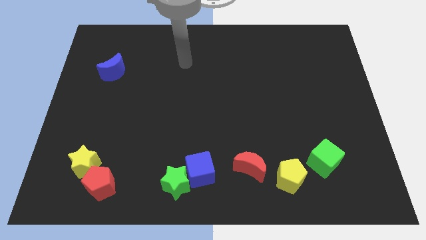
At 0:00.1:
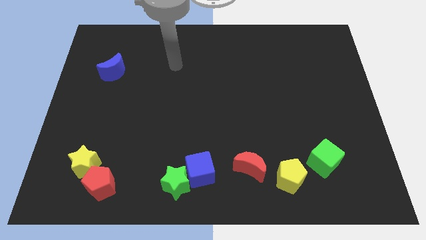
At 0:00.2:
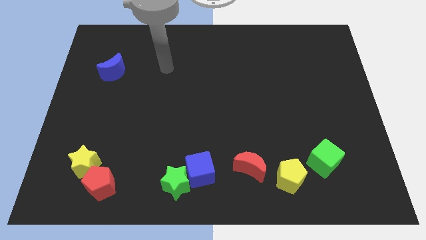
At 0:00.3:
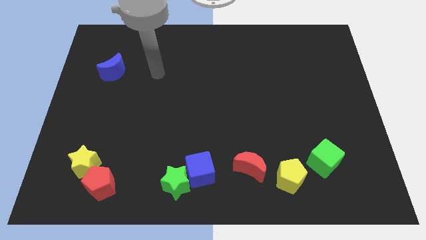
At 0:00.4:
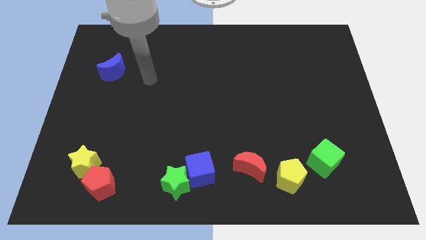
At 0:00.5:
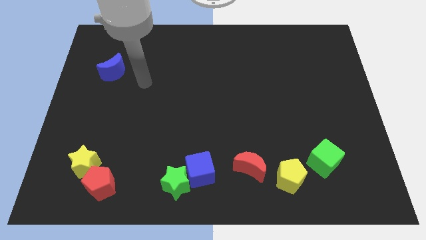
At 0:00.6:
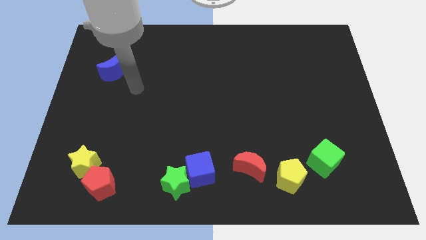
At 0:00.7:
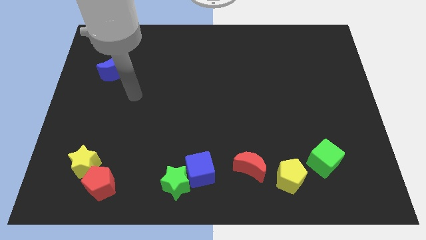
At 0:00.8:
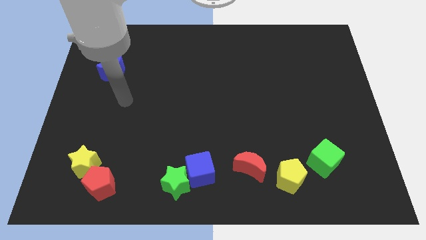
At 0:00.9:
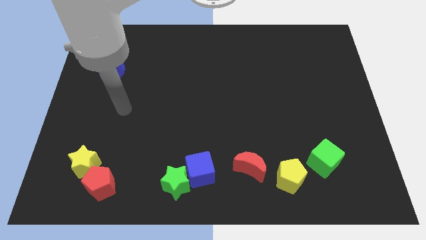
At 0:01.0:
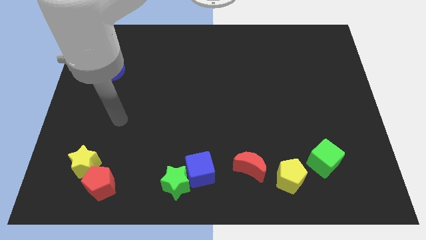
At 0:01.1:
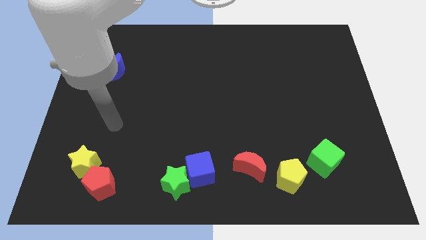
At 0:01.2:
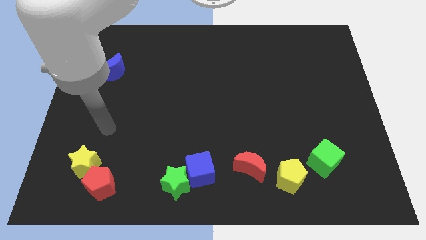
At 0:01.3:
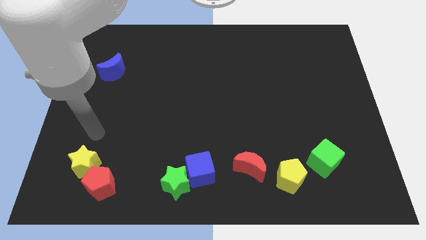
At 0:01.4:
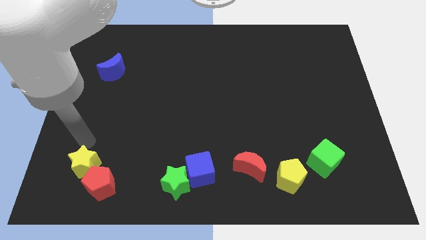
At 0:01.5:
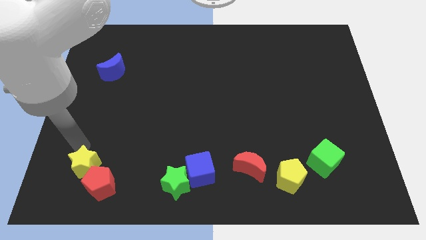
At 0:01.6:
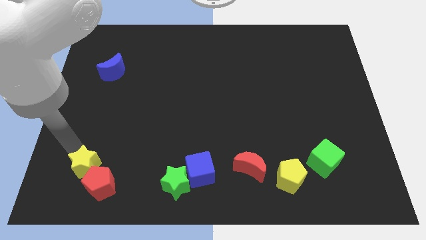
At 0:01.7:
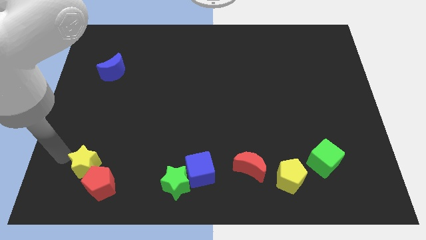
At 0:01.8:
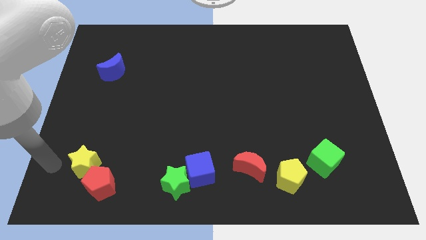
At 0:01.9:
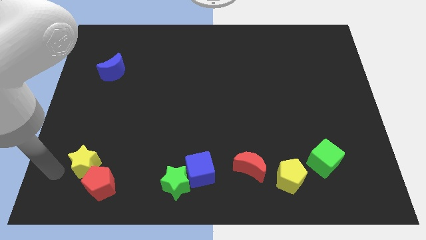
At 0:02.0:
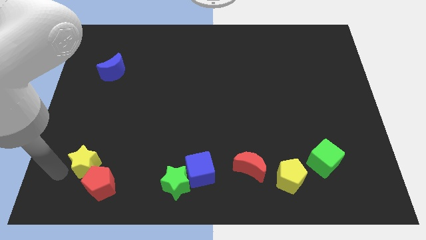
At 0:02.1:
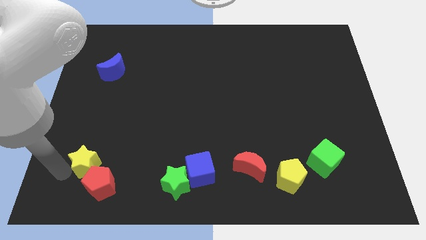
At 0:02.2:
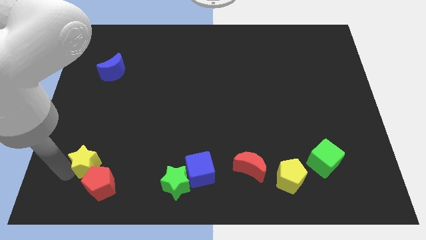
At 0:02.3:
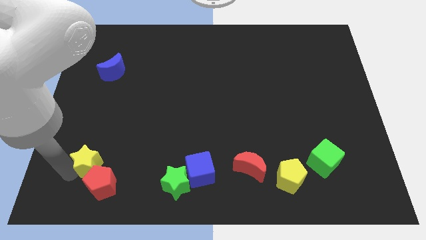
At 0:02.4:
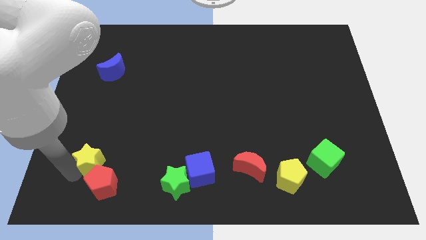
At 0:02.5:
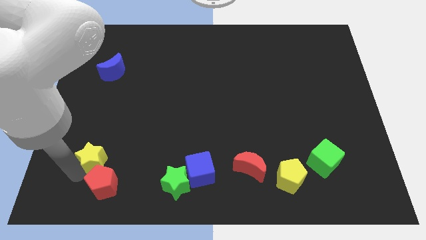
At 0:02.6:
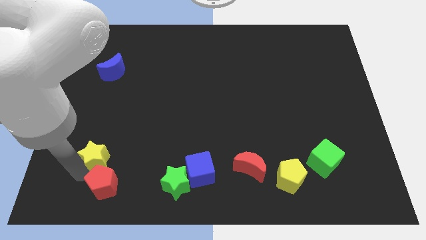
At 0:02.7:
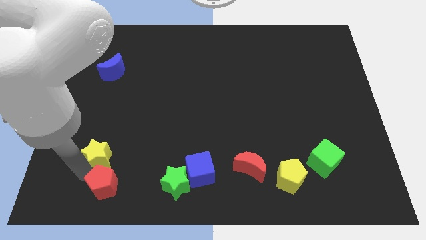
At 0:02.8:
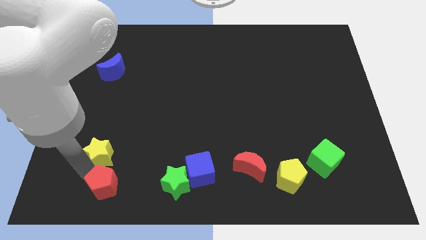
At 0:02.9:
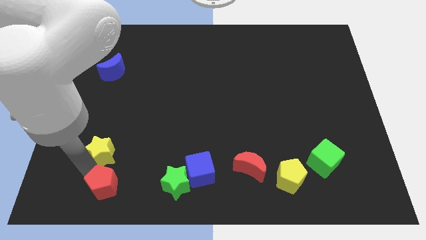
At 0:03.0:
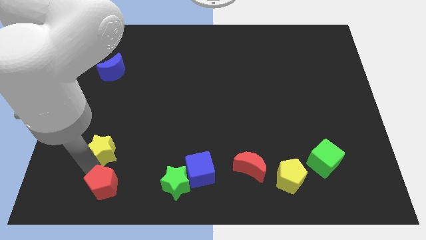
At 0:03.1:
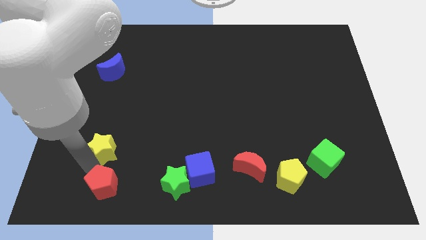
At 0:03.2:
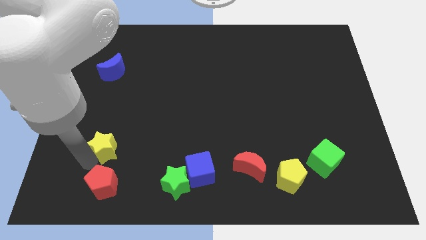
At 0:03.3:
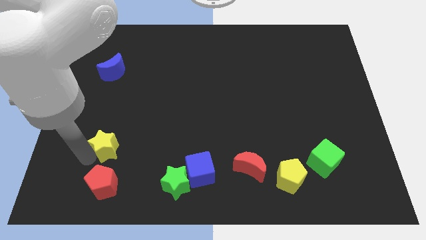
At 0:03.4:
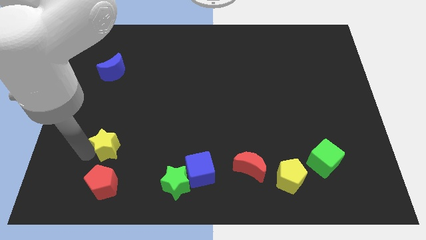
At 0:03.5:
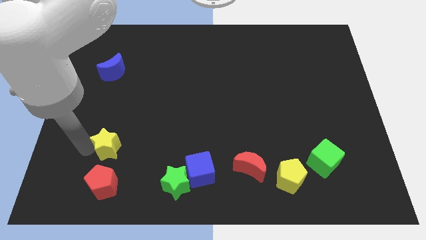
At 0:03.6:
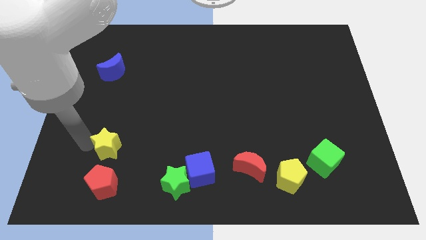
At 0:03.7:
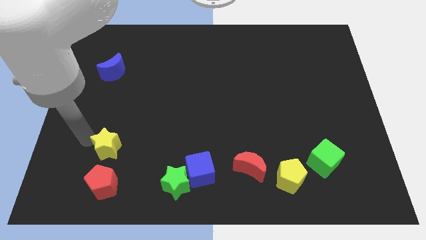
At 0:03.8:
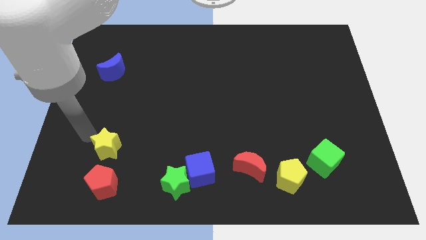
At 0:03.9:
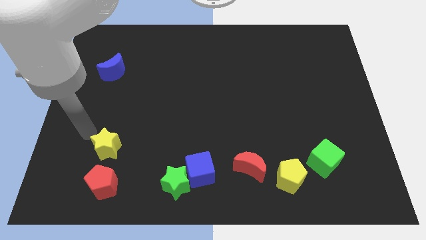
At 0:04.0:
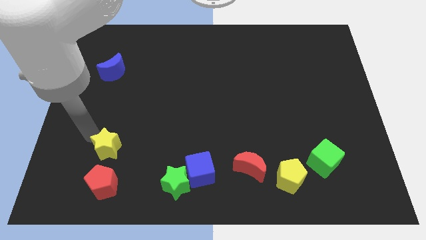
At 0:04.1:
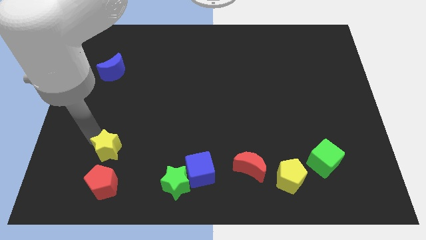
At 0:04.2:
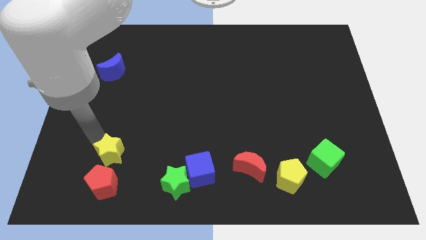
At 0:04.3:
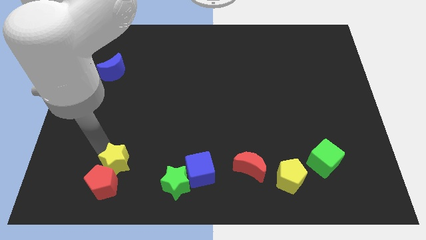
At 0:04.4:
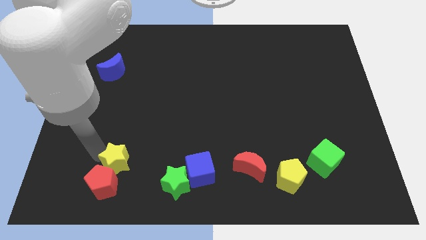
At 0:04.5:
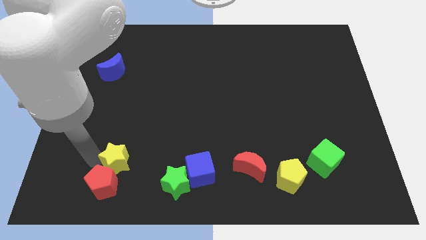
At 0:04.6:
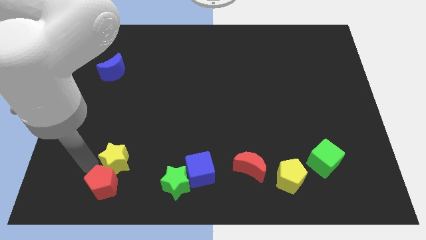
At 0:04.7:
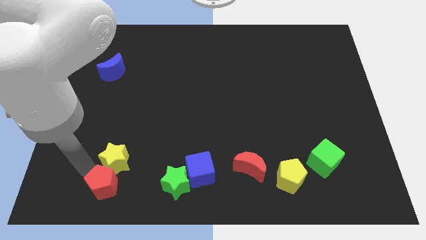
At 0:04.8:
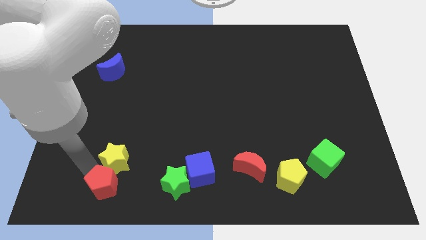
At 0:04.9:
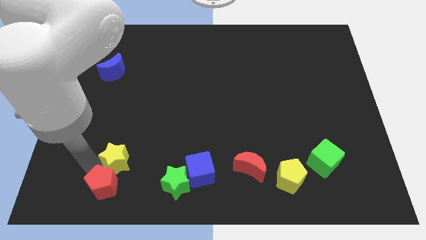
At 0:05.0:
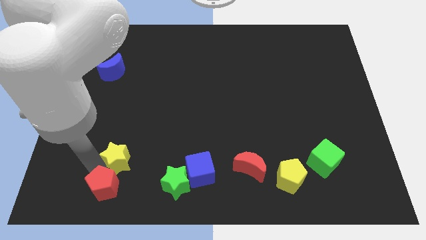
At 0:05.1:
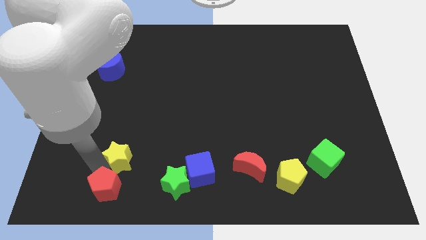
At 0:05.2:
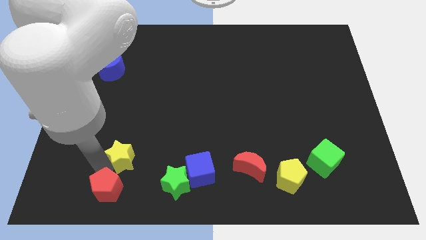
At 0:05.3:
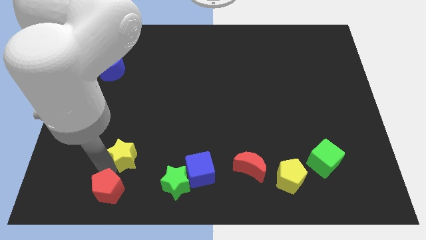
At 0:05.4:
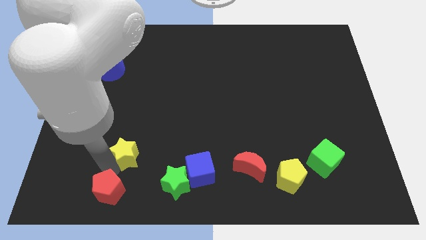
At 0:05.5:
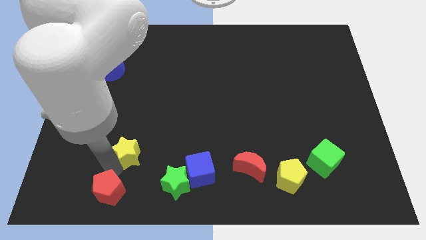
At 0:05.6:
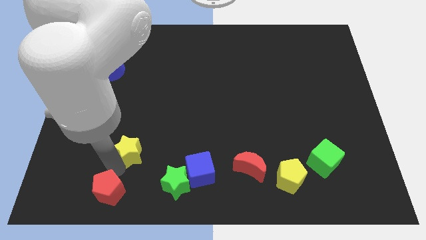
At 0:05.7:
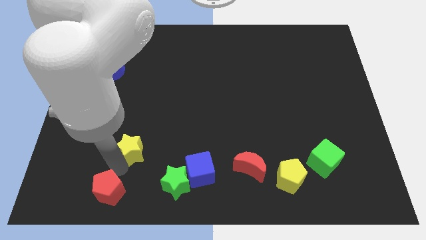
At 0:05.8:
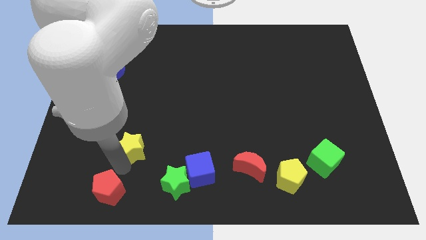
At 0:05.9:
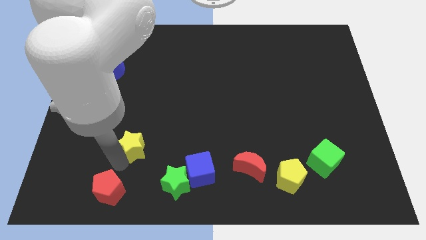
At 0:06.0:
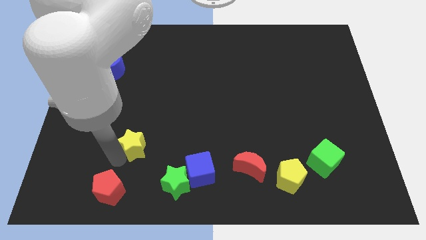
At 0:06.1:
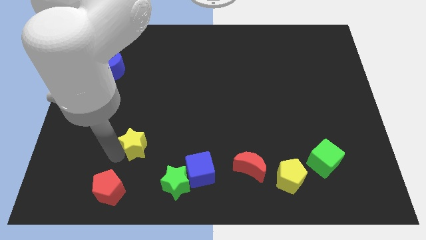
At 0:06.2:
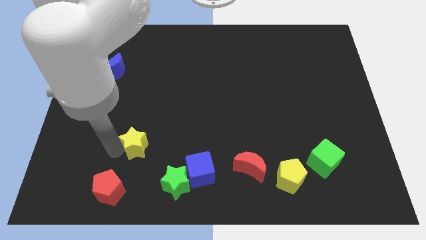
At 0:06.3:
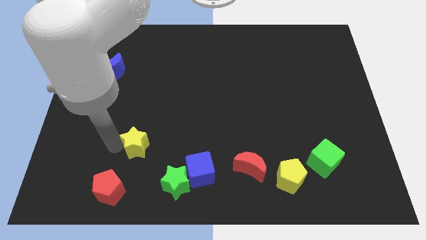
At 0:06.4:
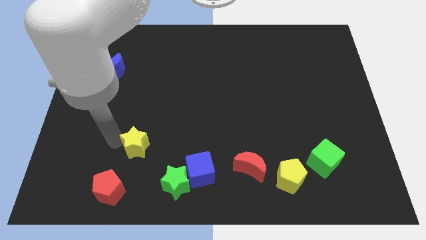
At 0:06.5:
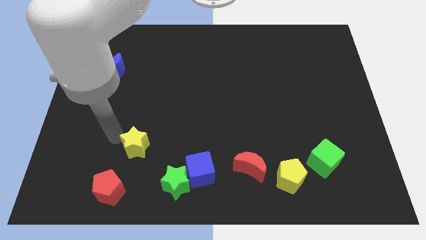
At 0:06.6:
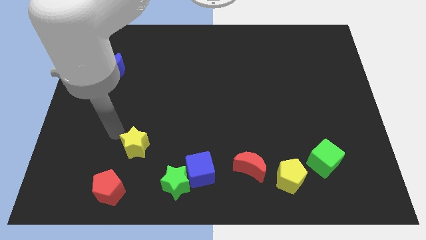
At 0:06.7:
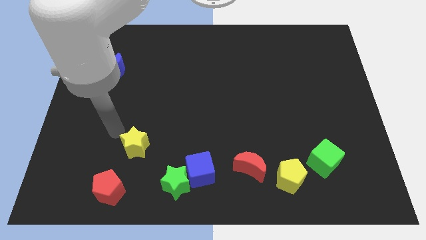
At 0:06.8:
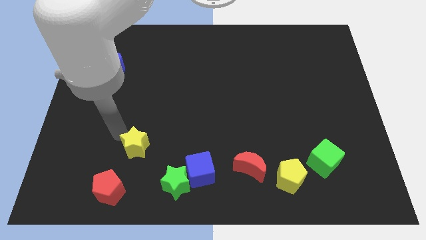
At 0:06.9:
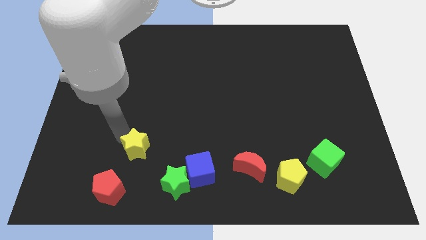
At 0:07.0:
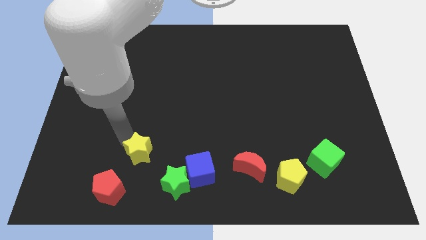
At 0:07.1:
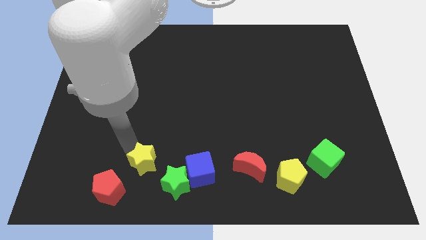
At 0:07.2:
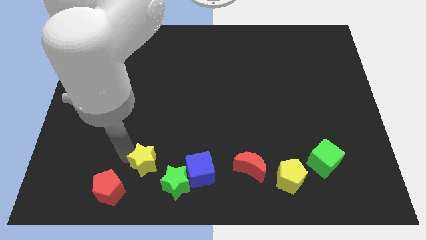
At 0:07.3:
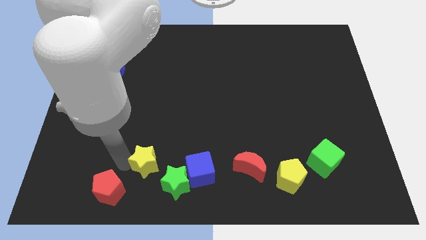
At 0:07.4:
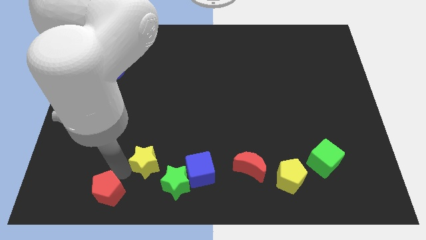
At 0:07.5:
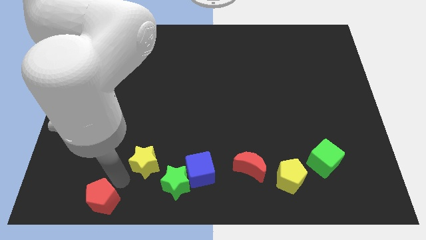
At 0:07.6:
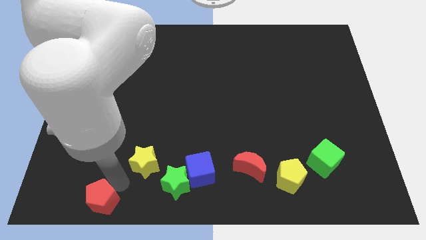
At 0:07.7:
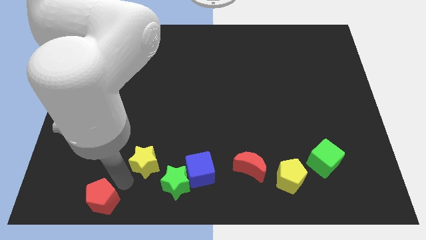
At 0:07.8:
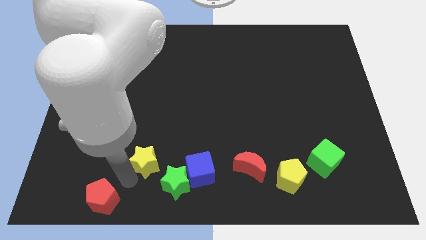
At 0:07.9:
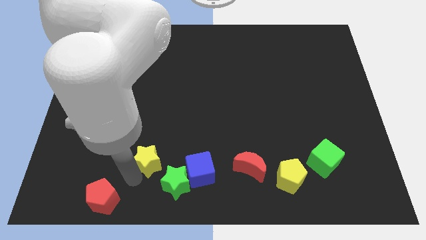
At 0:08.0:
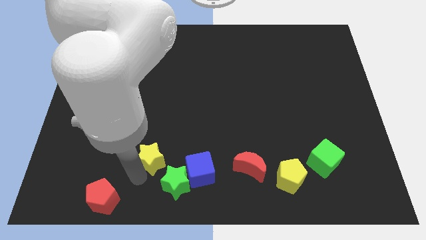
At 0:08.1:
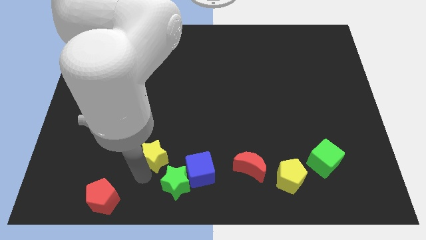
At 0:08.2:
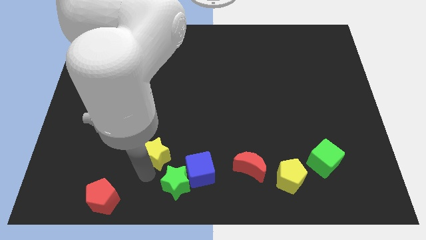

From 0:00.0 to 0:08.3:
slide the yellow star above the green star
